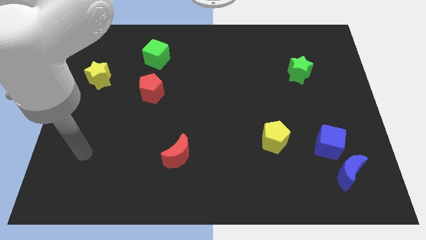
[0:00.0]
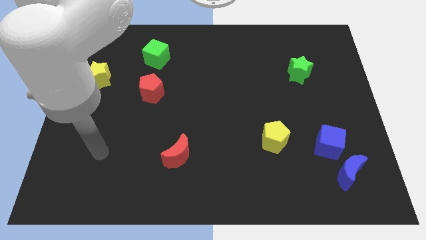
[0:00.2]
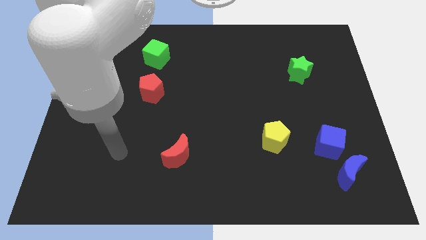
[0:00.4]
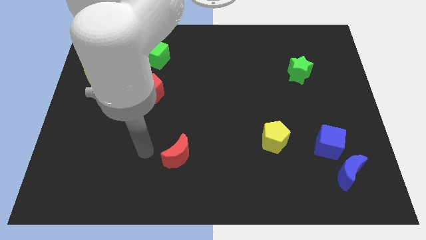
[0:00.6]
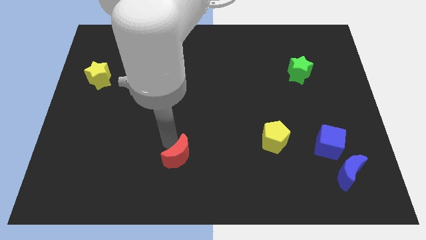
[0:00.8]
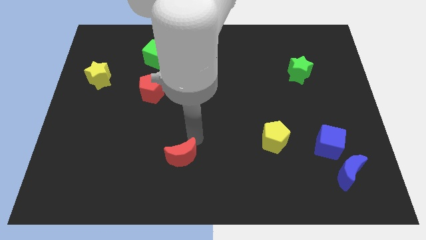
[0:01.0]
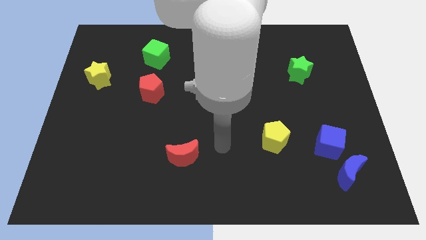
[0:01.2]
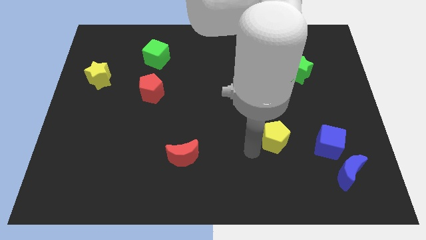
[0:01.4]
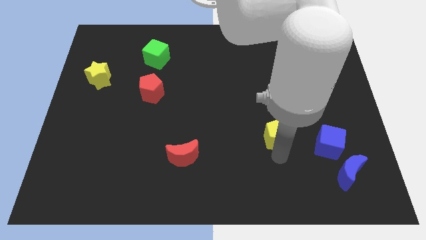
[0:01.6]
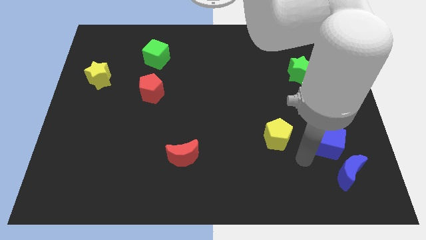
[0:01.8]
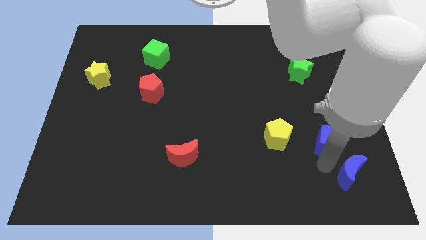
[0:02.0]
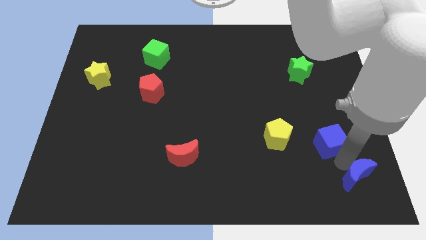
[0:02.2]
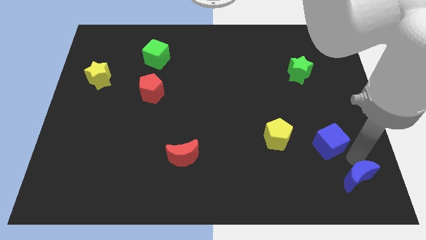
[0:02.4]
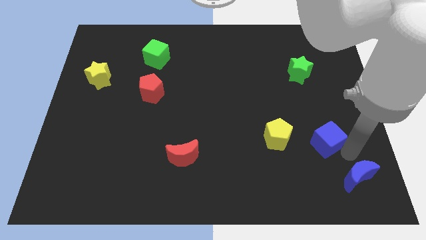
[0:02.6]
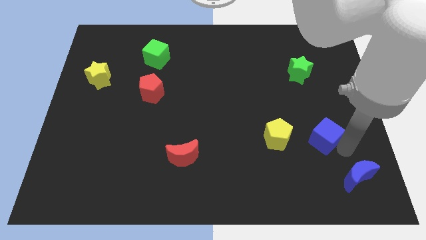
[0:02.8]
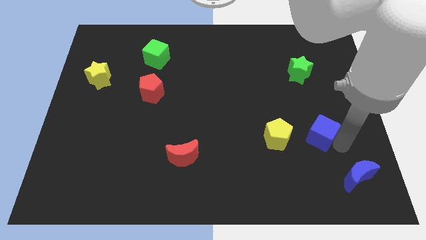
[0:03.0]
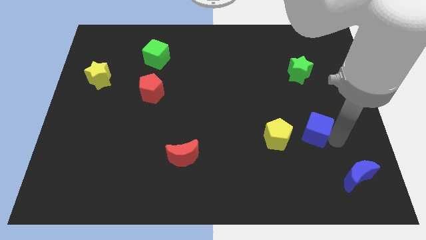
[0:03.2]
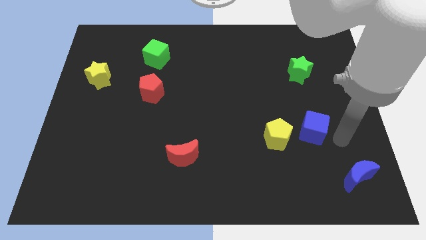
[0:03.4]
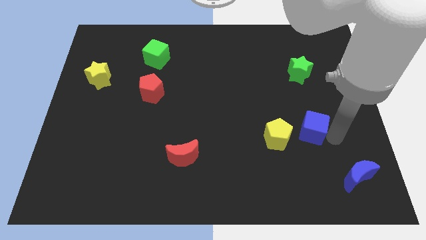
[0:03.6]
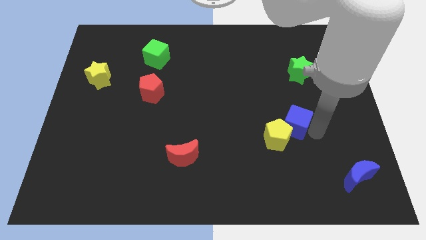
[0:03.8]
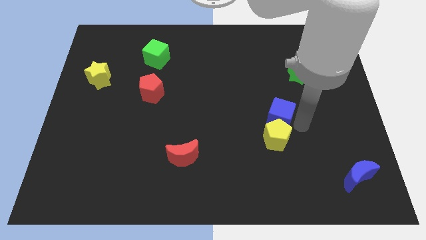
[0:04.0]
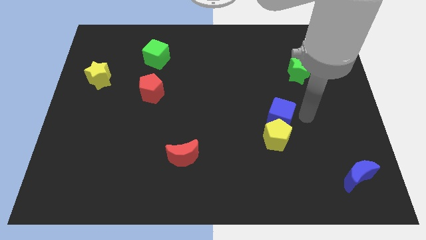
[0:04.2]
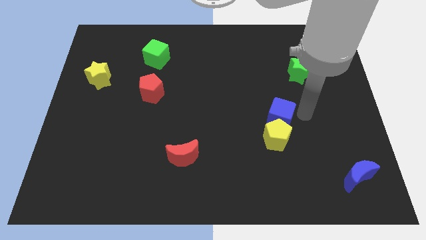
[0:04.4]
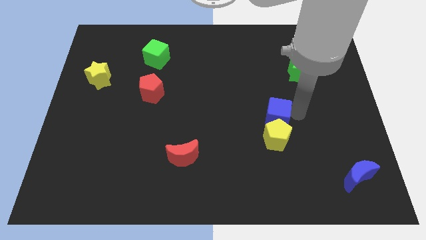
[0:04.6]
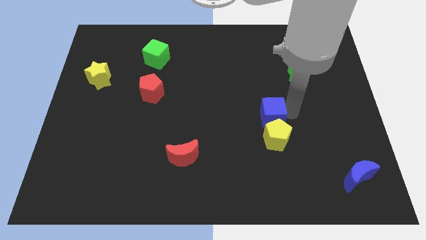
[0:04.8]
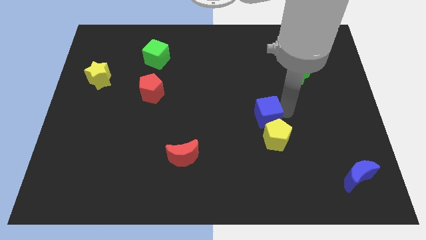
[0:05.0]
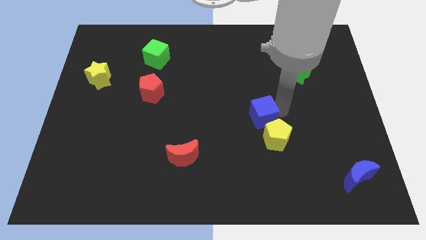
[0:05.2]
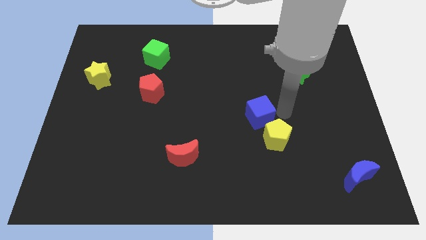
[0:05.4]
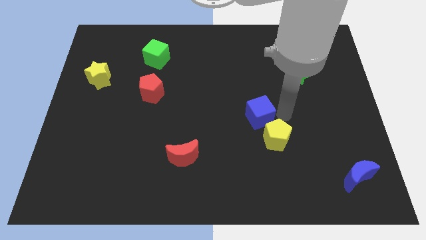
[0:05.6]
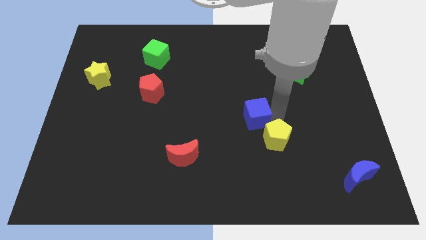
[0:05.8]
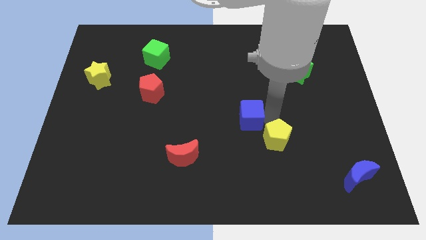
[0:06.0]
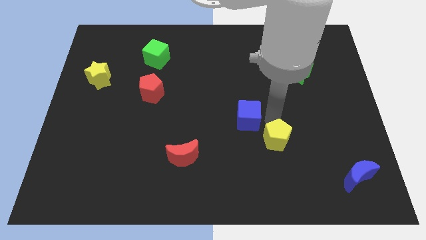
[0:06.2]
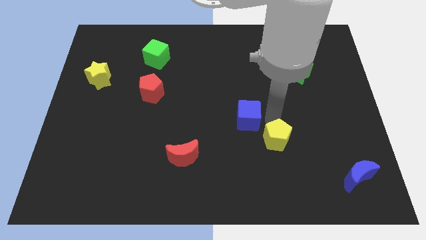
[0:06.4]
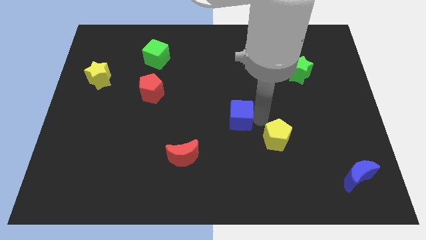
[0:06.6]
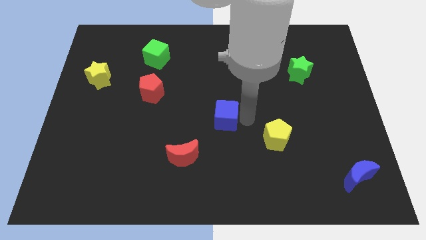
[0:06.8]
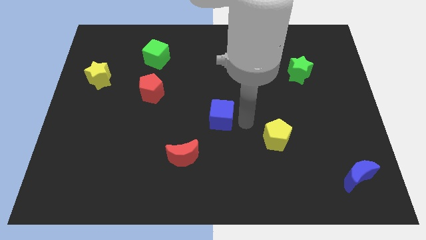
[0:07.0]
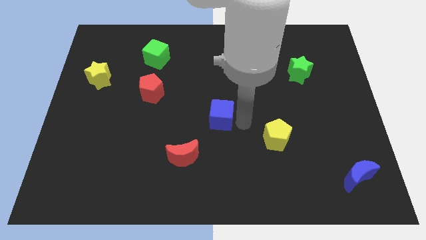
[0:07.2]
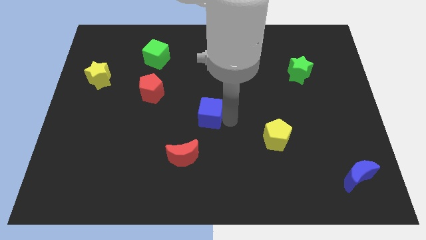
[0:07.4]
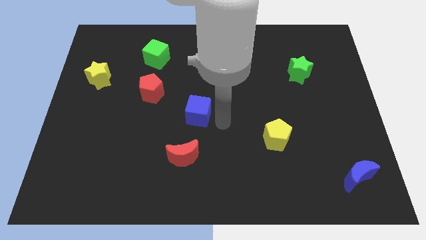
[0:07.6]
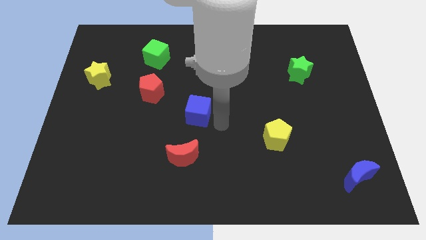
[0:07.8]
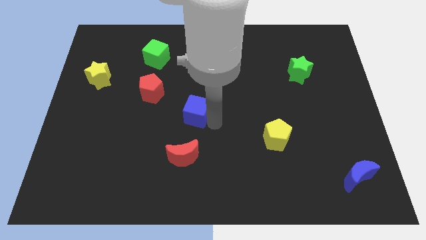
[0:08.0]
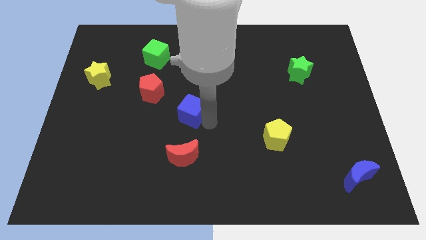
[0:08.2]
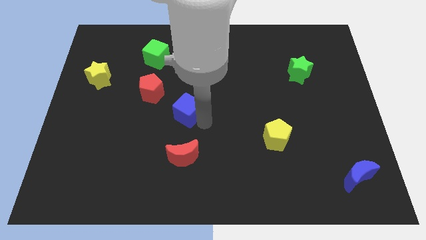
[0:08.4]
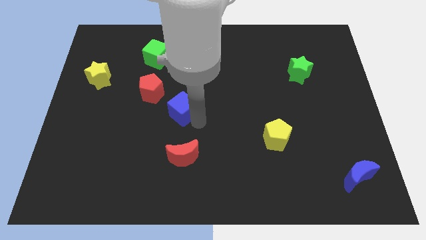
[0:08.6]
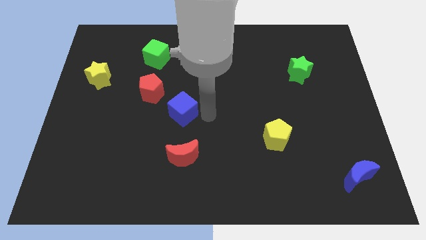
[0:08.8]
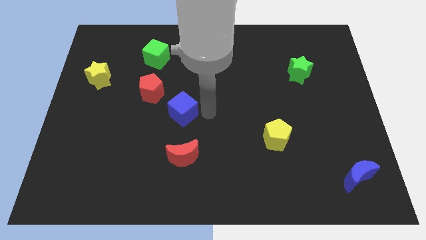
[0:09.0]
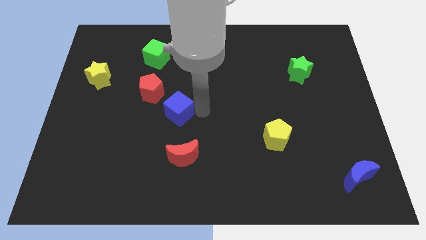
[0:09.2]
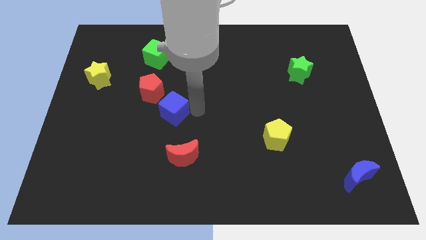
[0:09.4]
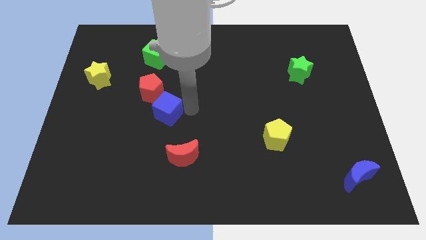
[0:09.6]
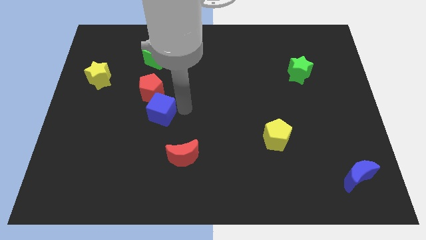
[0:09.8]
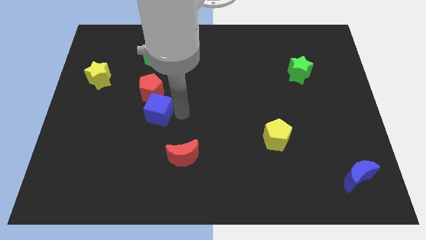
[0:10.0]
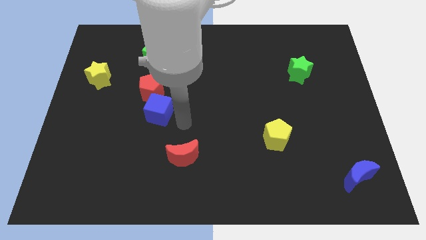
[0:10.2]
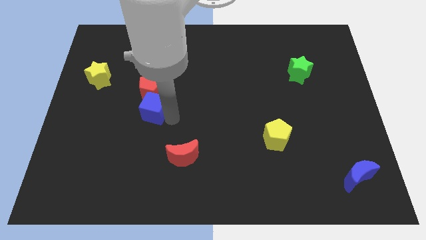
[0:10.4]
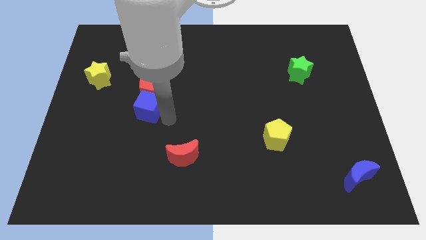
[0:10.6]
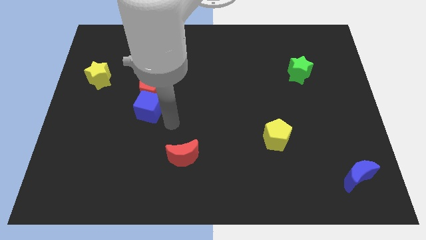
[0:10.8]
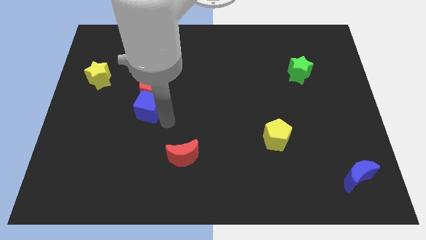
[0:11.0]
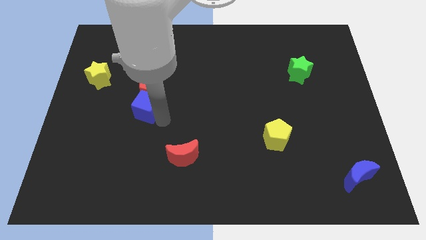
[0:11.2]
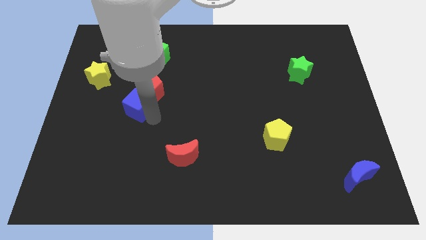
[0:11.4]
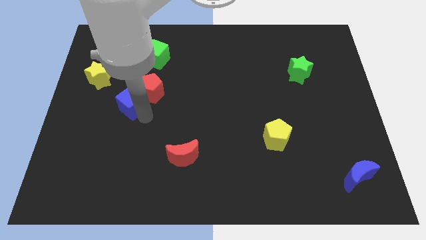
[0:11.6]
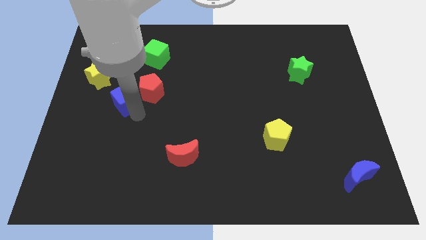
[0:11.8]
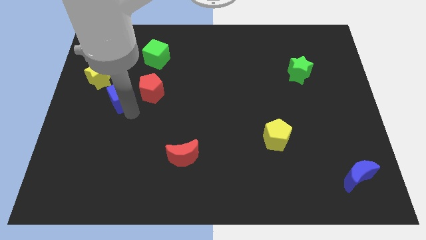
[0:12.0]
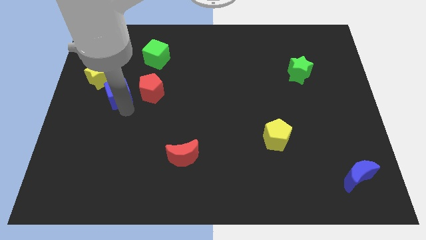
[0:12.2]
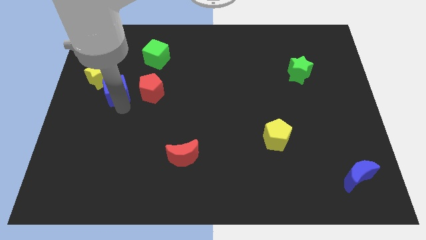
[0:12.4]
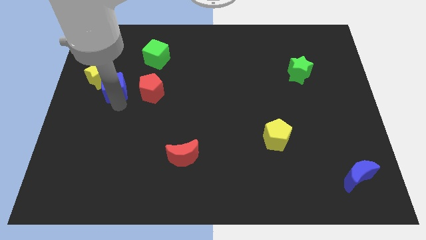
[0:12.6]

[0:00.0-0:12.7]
slide the blue cube to the yellow star

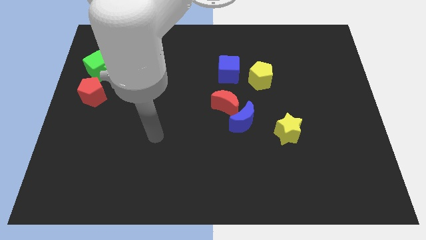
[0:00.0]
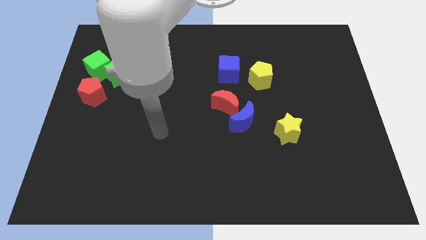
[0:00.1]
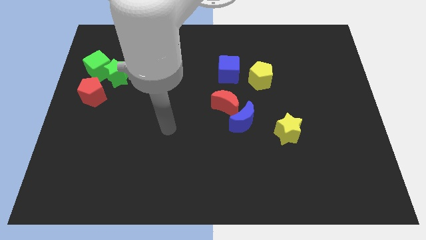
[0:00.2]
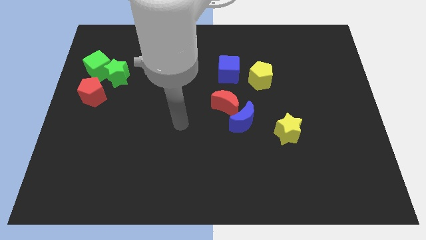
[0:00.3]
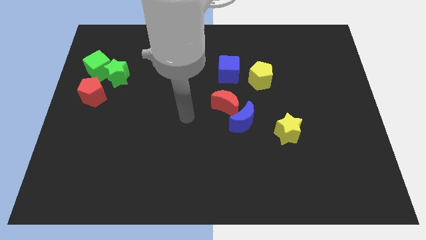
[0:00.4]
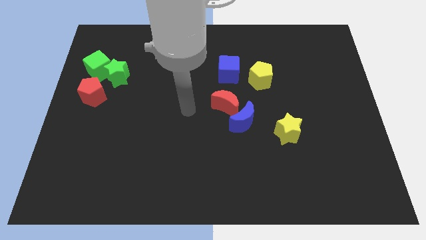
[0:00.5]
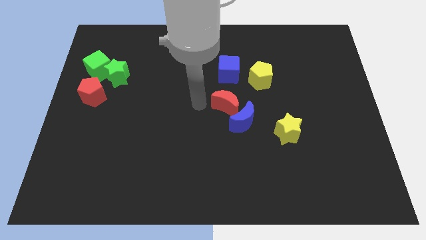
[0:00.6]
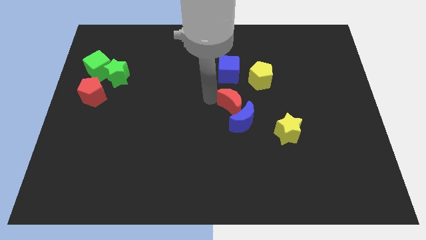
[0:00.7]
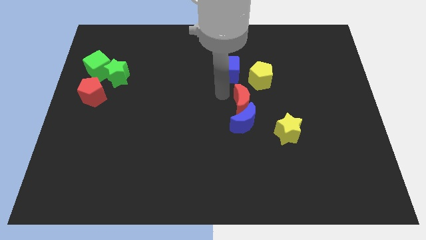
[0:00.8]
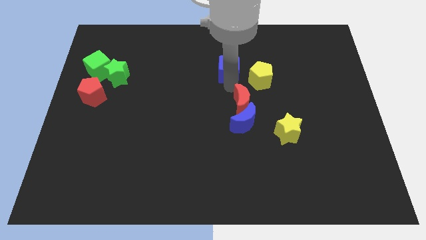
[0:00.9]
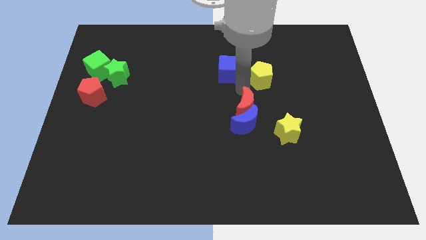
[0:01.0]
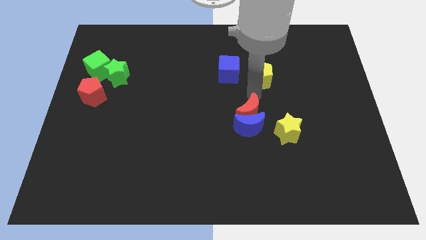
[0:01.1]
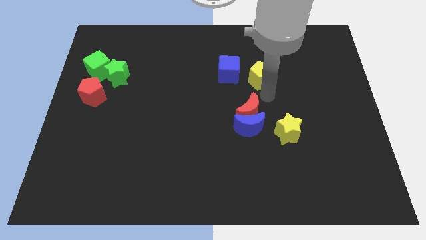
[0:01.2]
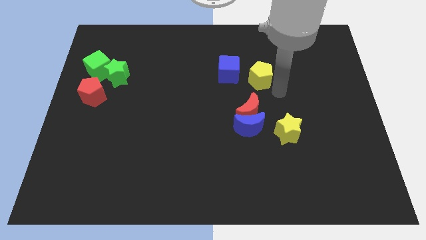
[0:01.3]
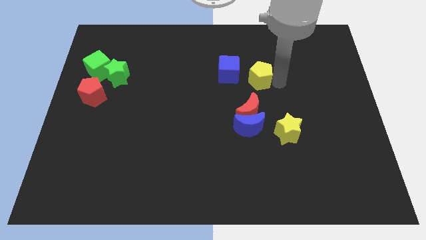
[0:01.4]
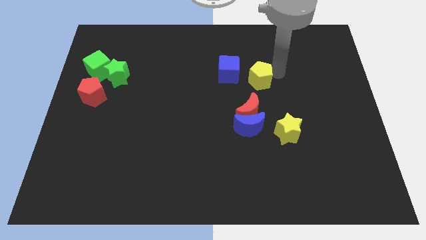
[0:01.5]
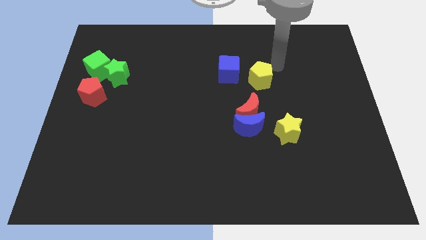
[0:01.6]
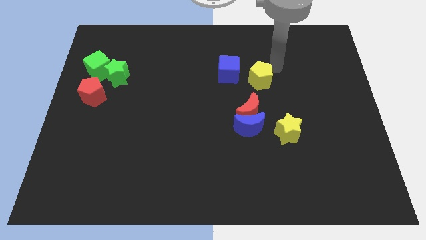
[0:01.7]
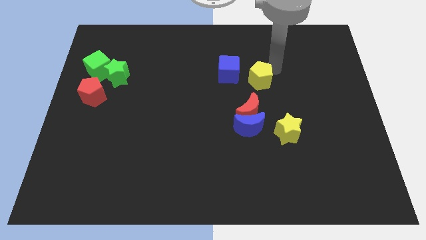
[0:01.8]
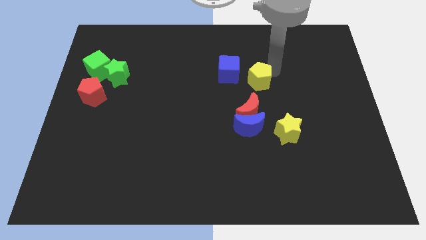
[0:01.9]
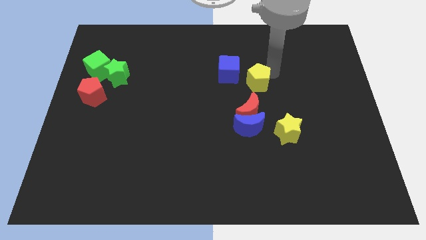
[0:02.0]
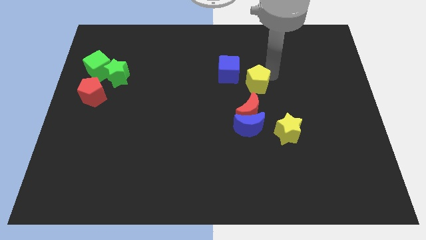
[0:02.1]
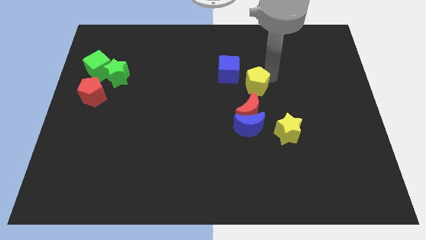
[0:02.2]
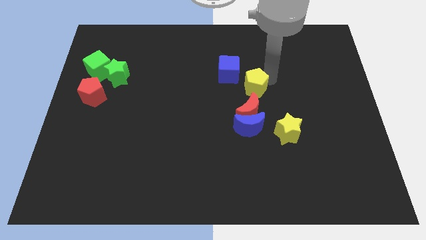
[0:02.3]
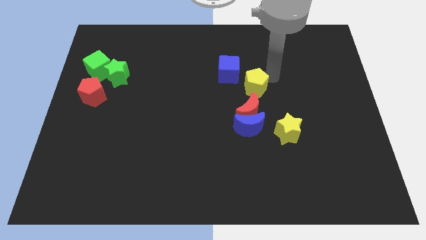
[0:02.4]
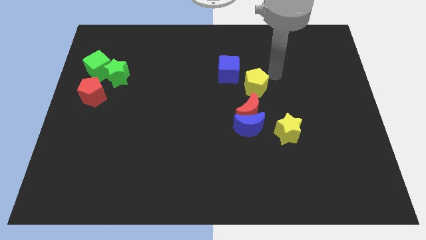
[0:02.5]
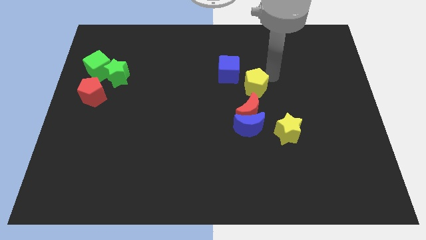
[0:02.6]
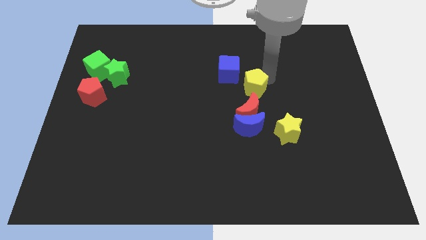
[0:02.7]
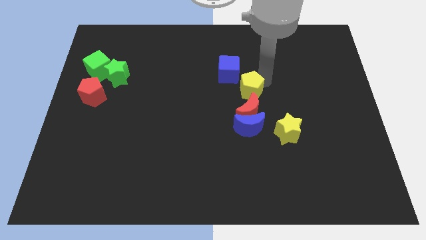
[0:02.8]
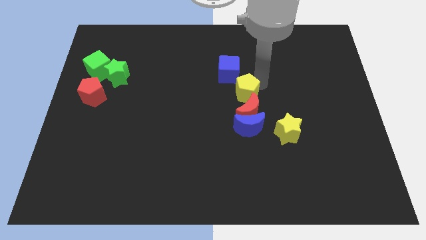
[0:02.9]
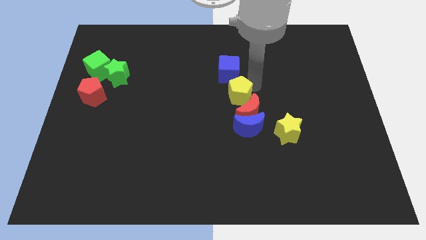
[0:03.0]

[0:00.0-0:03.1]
slide the yellow pentagon next to the red moon
